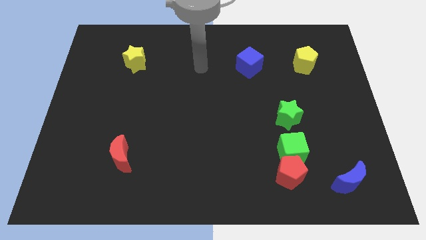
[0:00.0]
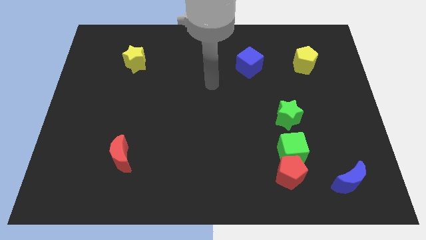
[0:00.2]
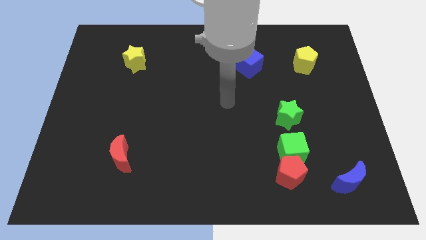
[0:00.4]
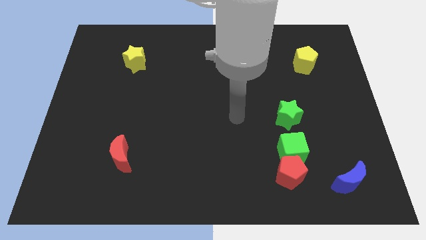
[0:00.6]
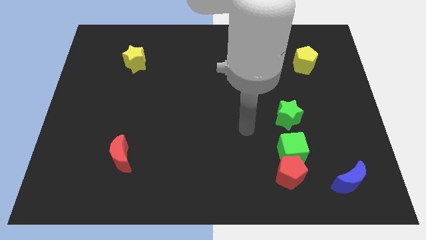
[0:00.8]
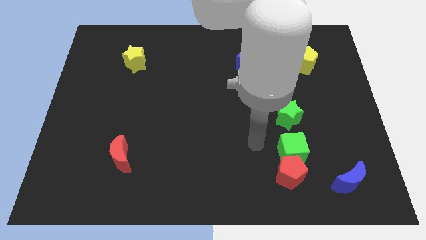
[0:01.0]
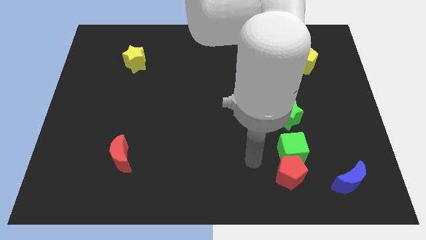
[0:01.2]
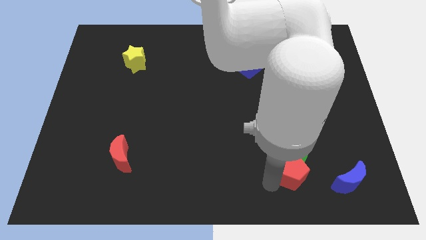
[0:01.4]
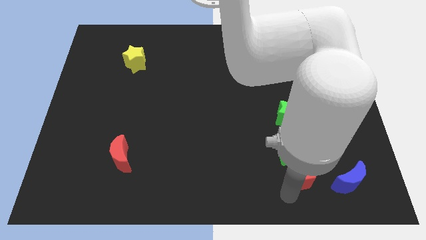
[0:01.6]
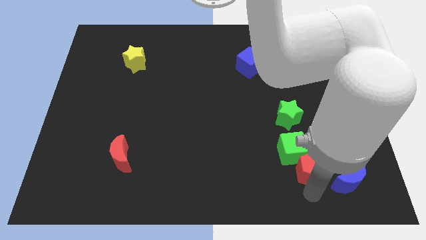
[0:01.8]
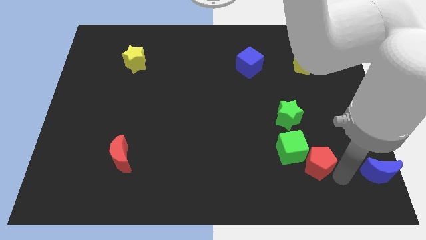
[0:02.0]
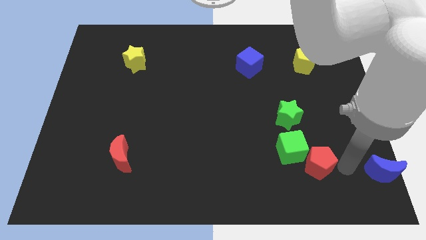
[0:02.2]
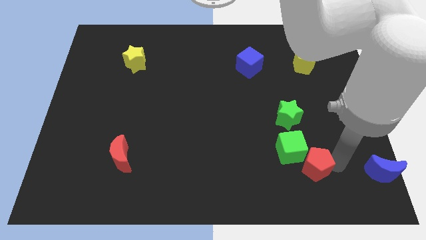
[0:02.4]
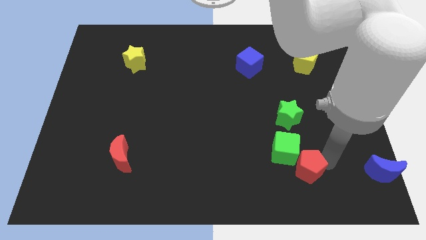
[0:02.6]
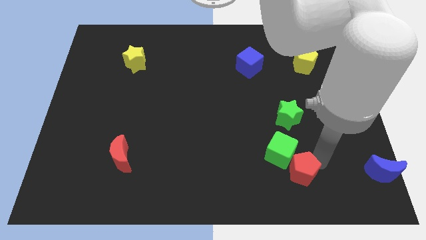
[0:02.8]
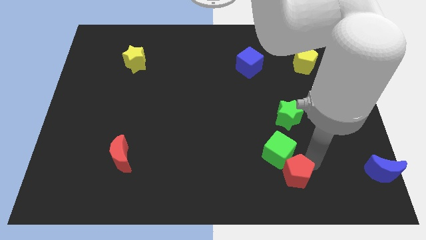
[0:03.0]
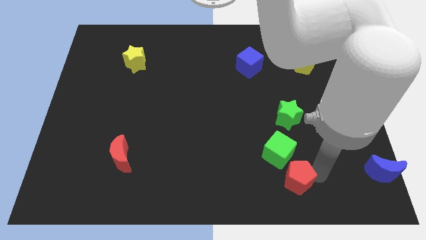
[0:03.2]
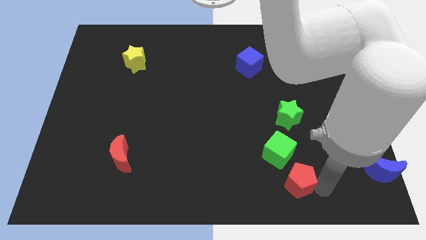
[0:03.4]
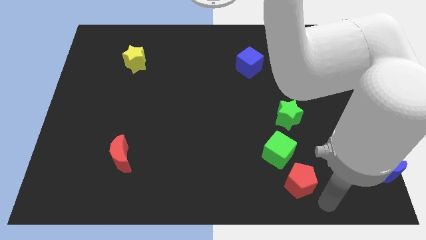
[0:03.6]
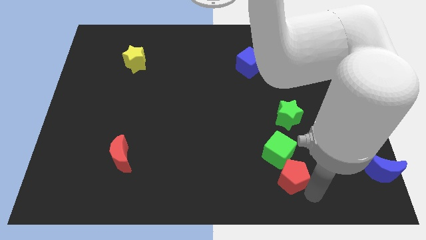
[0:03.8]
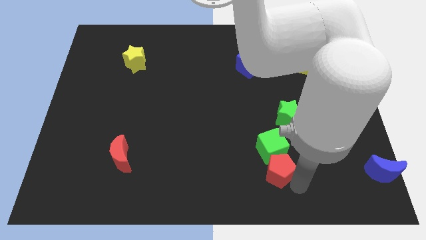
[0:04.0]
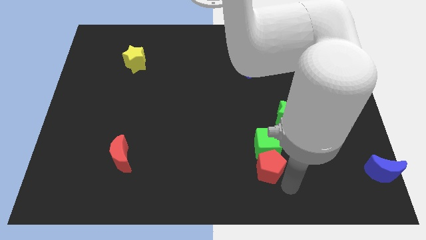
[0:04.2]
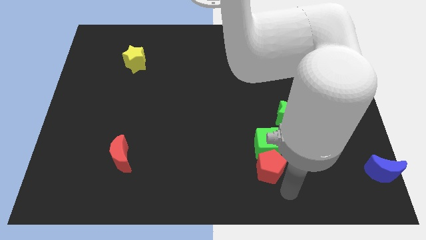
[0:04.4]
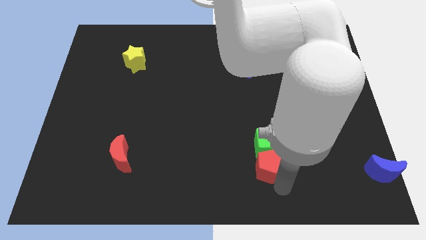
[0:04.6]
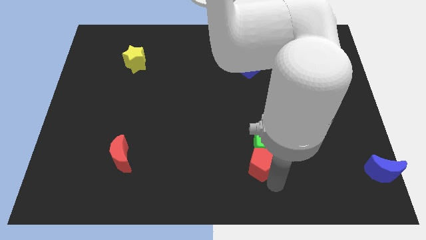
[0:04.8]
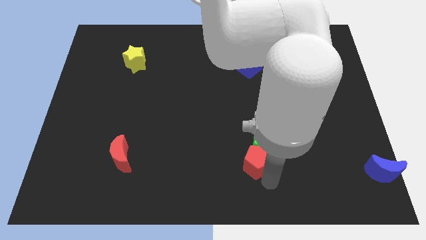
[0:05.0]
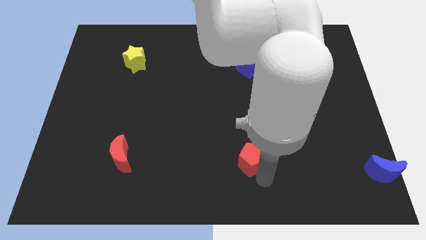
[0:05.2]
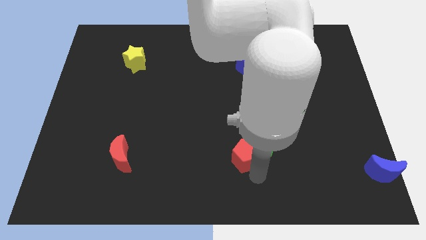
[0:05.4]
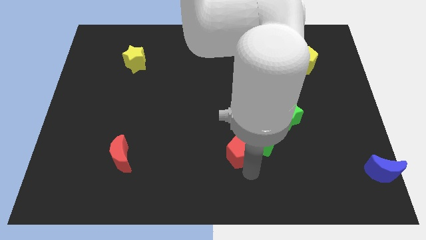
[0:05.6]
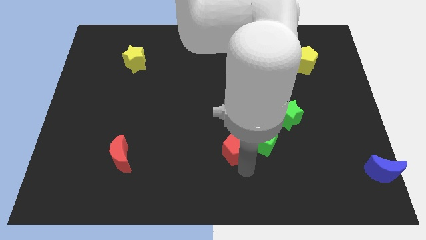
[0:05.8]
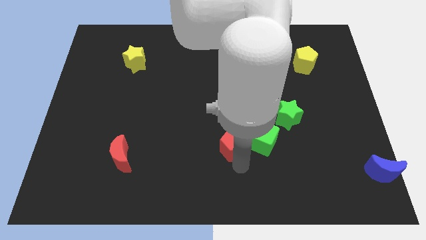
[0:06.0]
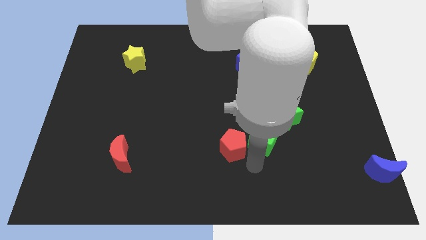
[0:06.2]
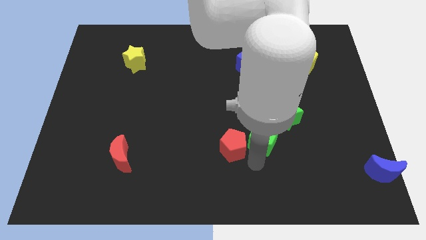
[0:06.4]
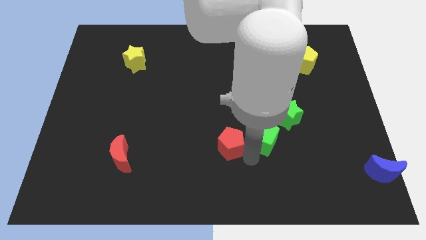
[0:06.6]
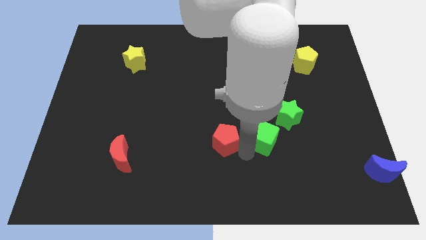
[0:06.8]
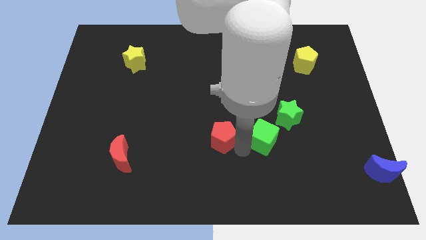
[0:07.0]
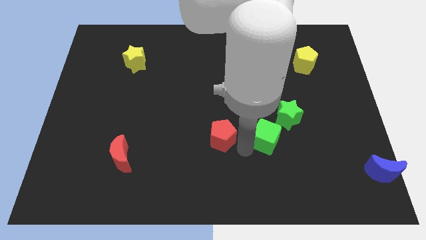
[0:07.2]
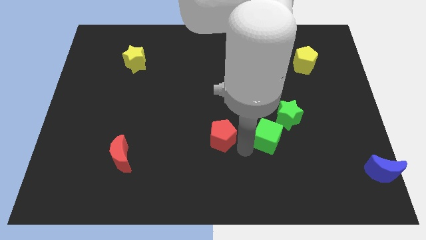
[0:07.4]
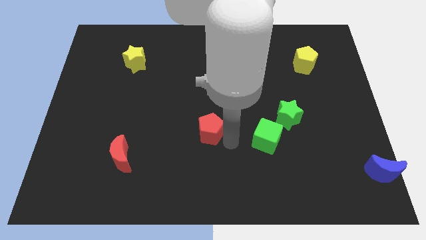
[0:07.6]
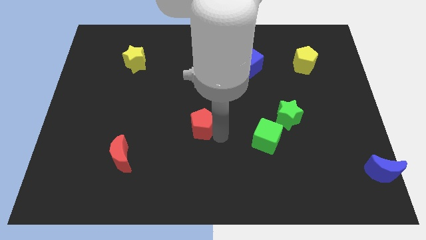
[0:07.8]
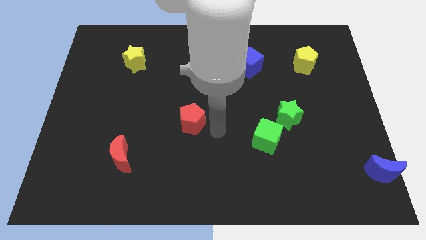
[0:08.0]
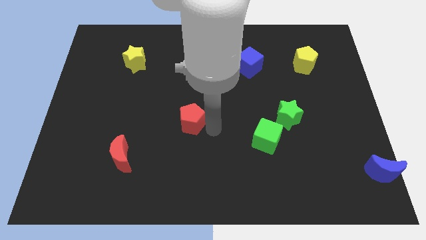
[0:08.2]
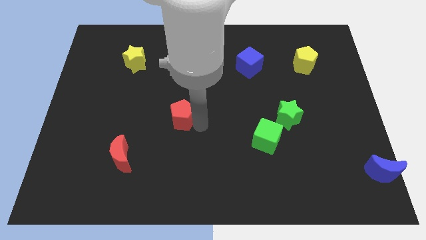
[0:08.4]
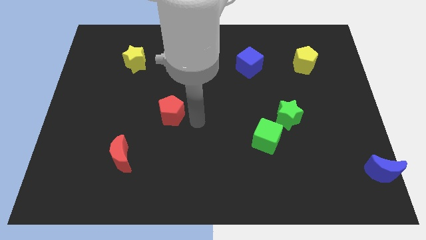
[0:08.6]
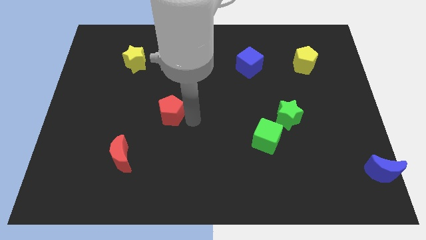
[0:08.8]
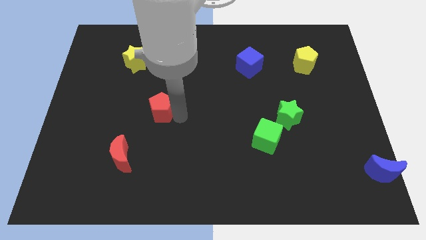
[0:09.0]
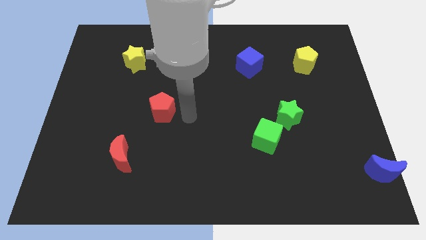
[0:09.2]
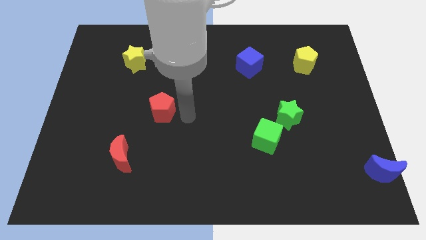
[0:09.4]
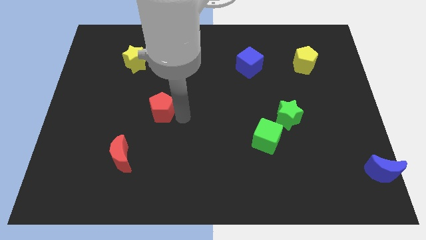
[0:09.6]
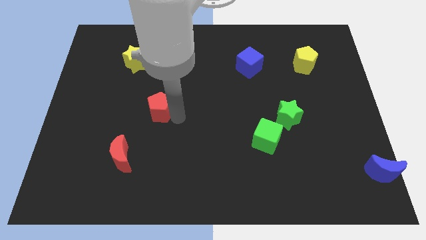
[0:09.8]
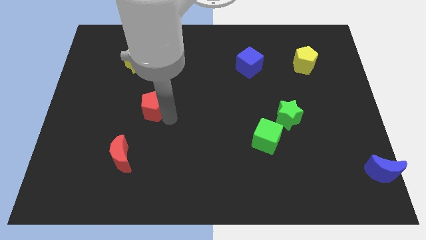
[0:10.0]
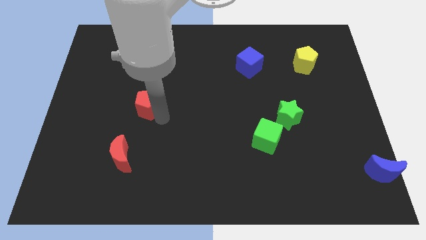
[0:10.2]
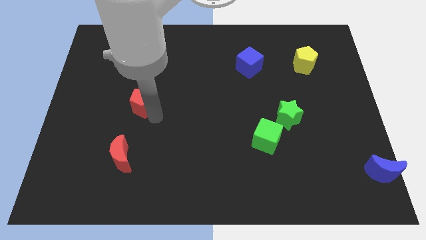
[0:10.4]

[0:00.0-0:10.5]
move the red pentagon below the yellow star

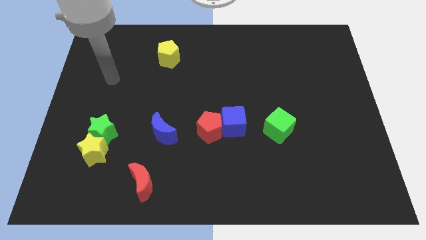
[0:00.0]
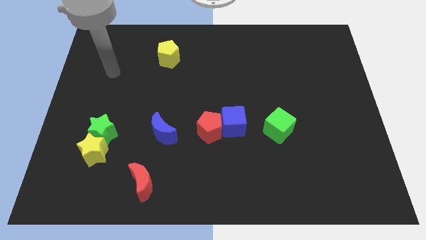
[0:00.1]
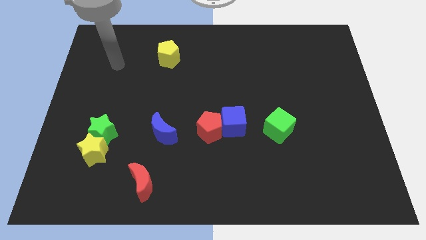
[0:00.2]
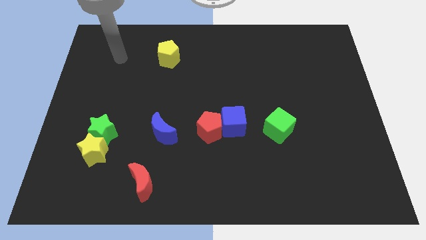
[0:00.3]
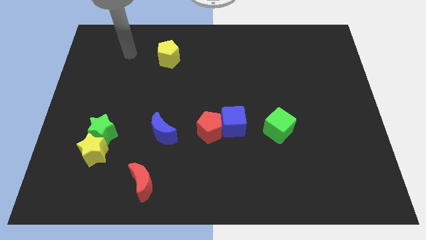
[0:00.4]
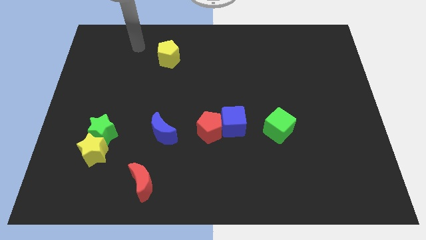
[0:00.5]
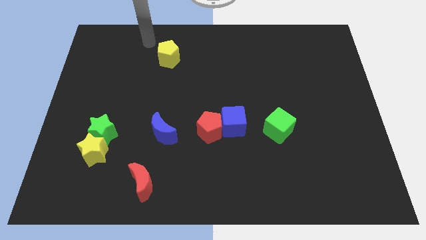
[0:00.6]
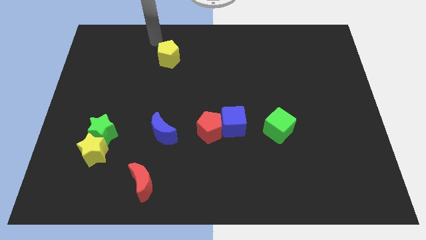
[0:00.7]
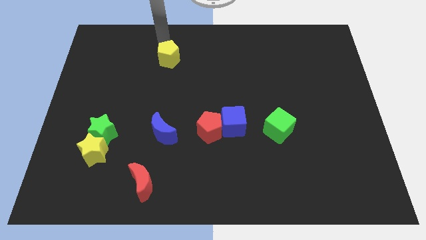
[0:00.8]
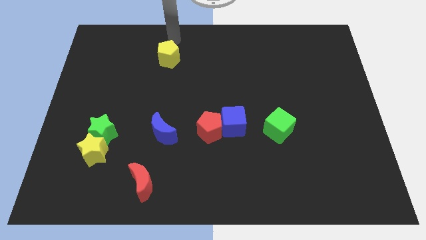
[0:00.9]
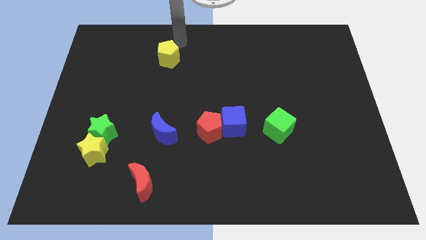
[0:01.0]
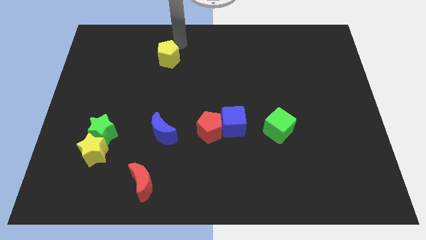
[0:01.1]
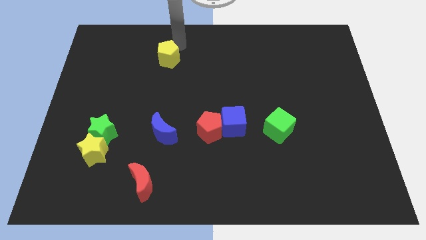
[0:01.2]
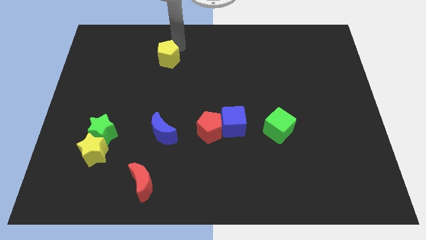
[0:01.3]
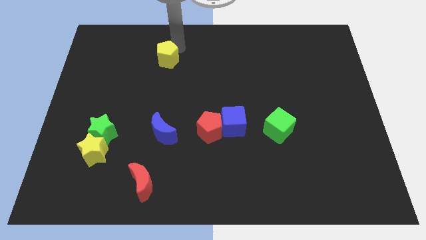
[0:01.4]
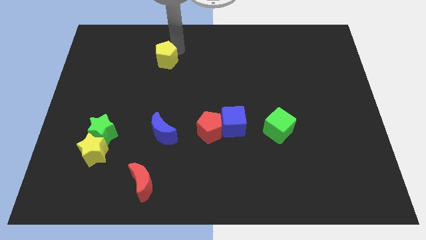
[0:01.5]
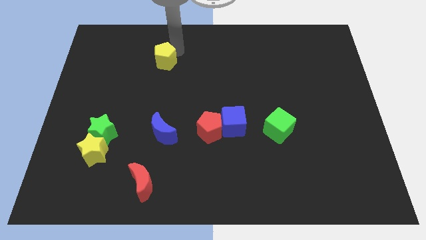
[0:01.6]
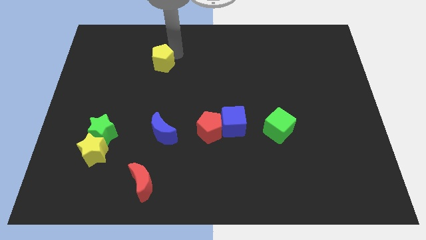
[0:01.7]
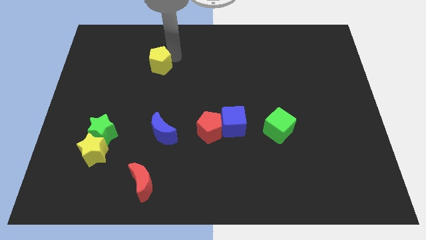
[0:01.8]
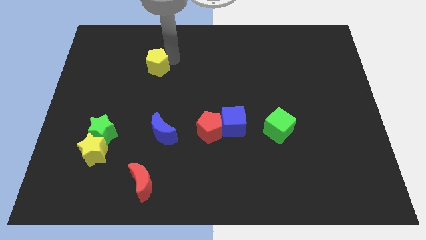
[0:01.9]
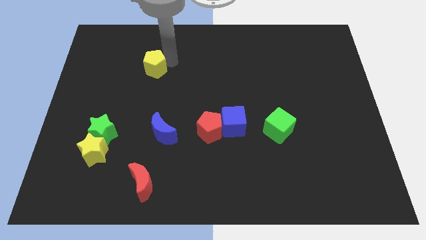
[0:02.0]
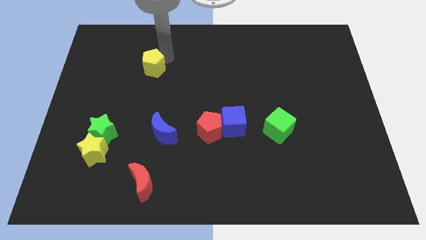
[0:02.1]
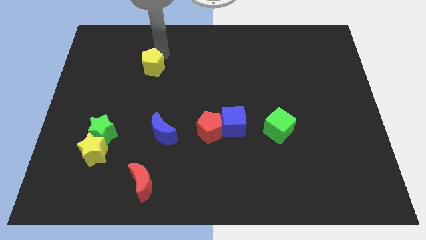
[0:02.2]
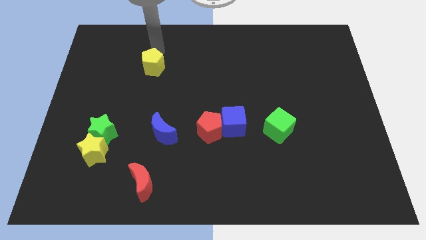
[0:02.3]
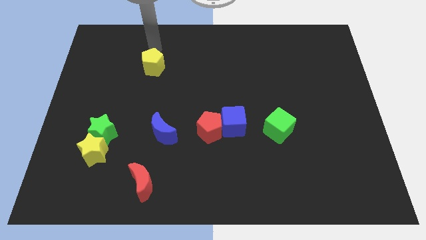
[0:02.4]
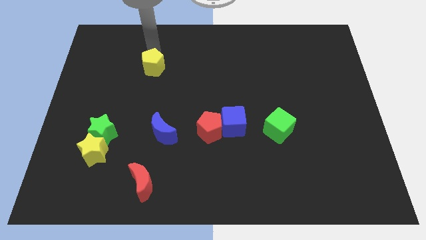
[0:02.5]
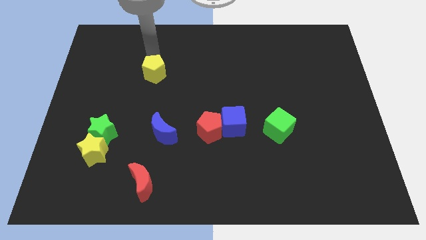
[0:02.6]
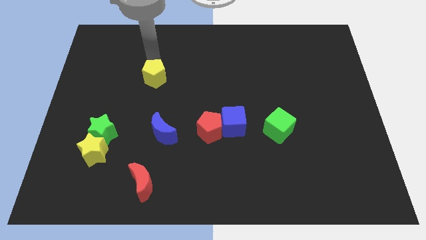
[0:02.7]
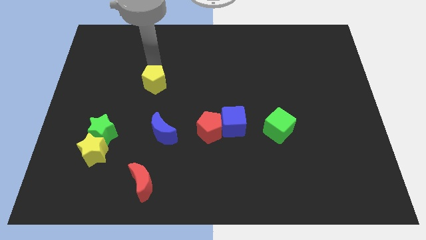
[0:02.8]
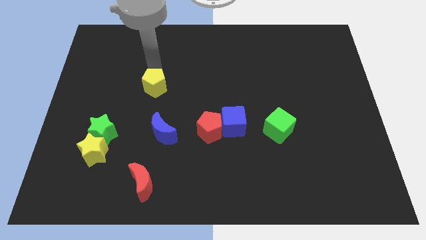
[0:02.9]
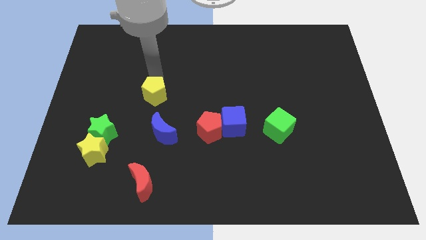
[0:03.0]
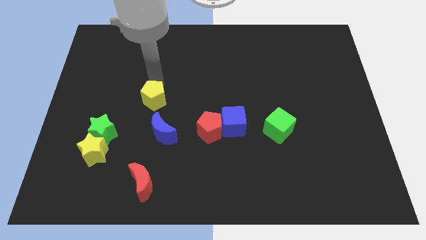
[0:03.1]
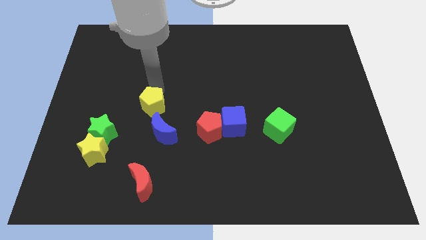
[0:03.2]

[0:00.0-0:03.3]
slide the yellow pentagon to the top left of the blue moon
